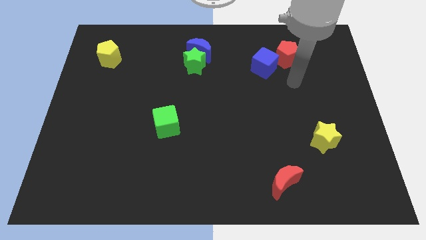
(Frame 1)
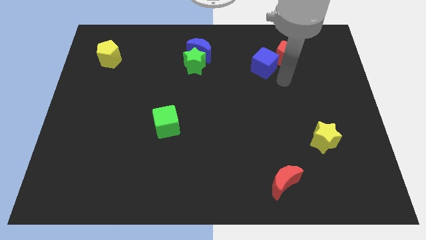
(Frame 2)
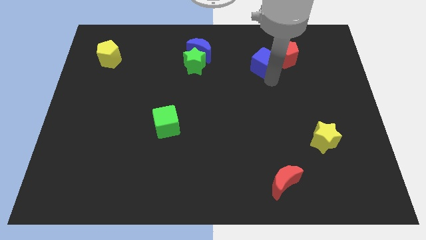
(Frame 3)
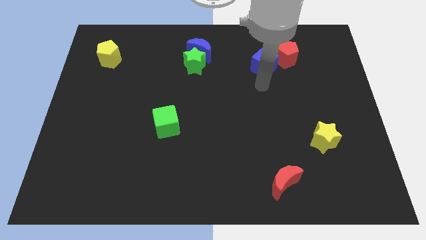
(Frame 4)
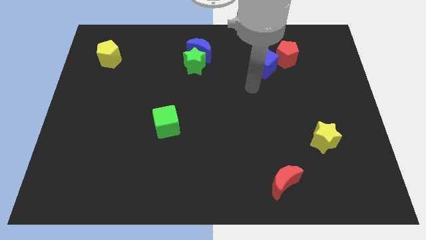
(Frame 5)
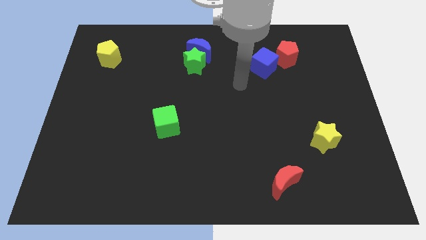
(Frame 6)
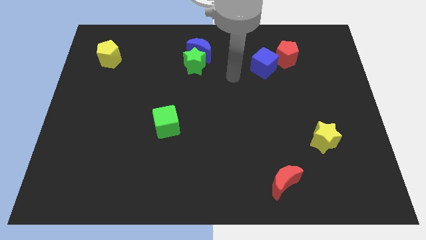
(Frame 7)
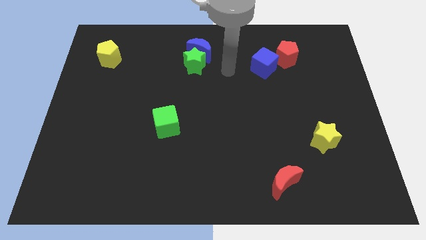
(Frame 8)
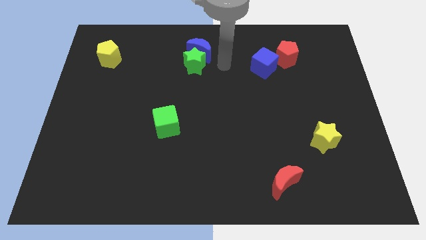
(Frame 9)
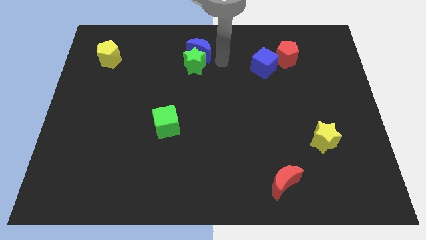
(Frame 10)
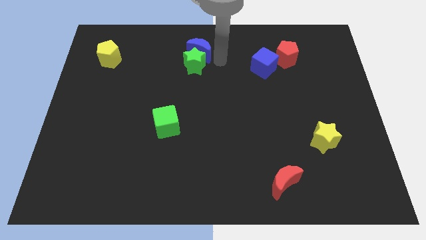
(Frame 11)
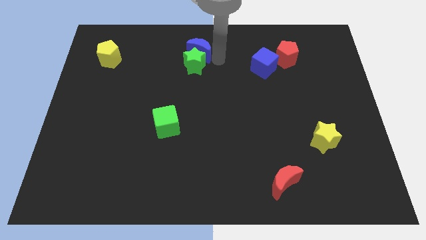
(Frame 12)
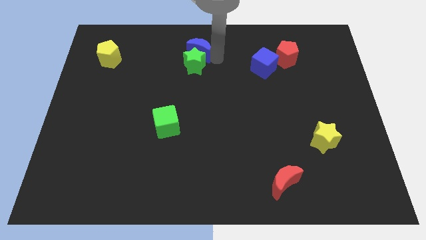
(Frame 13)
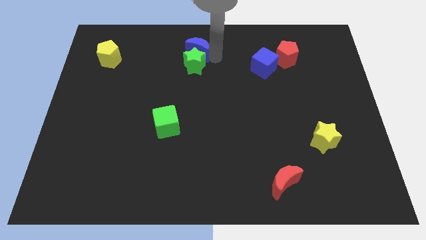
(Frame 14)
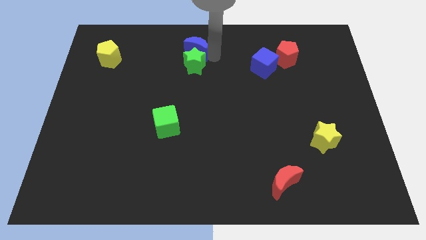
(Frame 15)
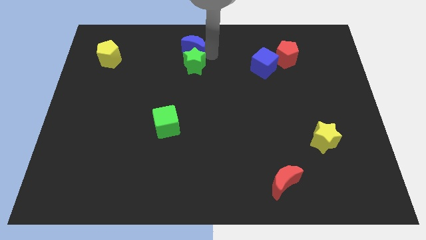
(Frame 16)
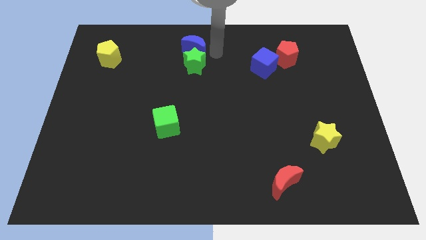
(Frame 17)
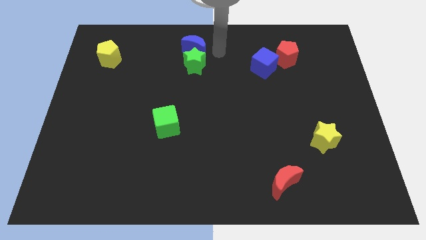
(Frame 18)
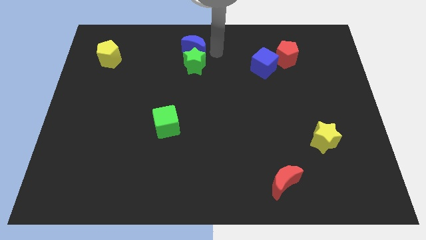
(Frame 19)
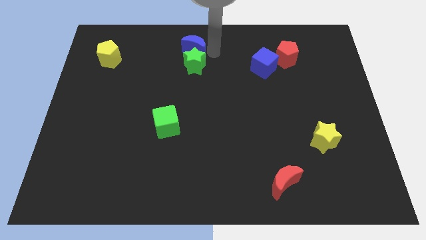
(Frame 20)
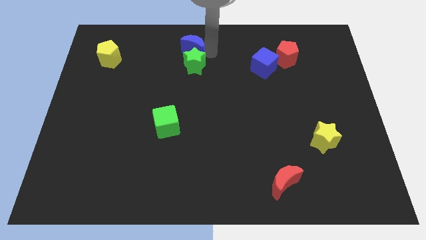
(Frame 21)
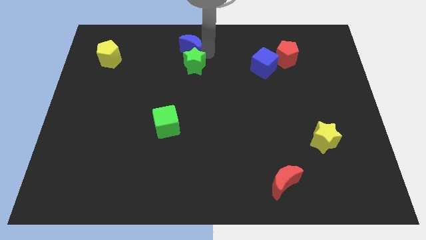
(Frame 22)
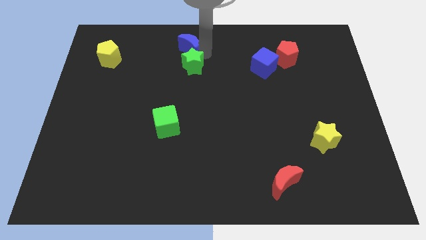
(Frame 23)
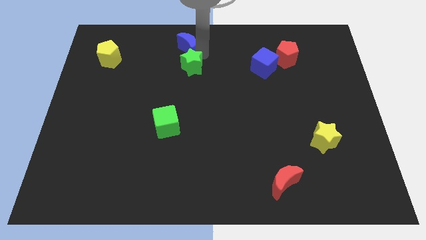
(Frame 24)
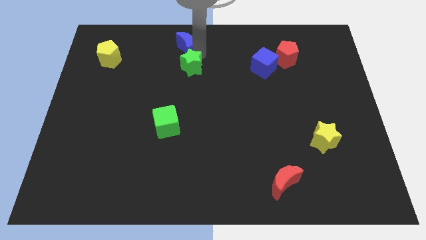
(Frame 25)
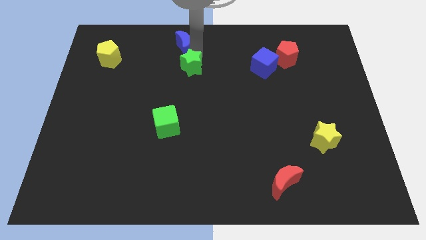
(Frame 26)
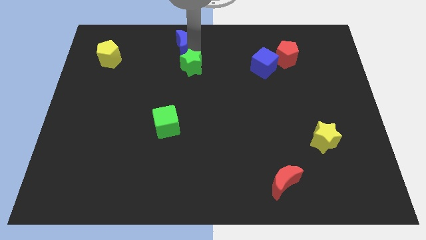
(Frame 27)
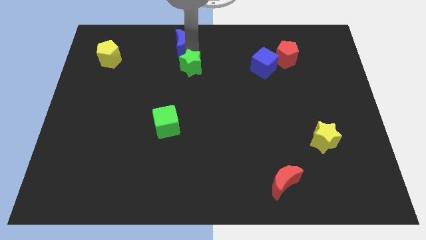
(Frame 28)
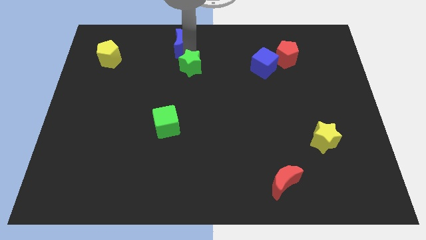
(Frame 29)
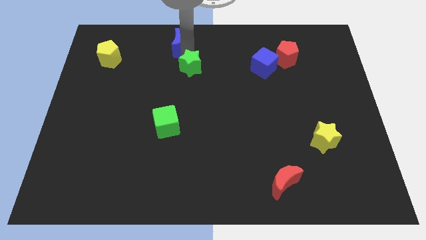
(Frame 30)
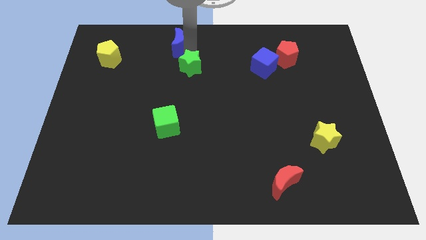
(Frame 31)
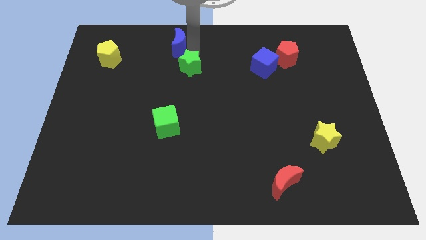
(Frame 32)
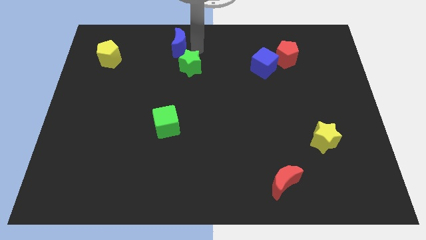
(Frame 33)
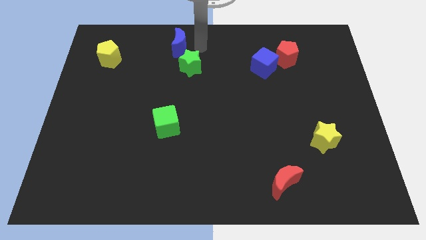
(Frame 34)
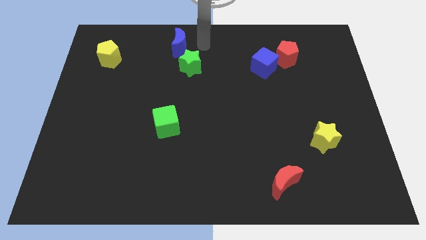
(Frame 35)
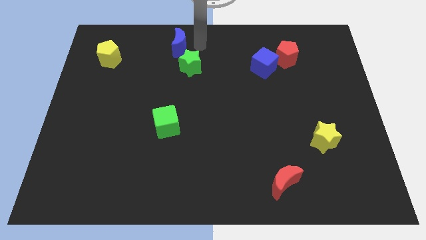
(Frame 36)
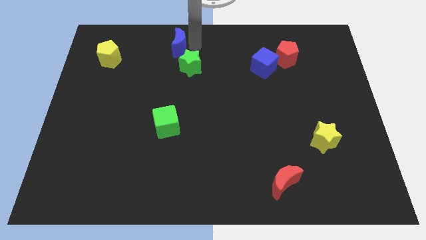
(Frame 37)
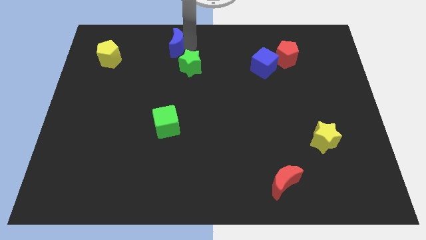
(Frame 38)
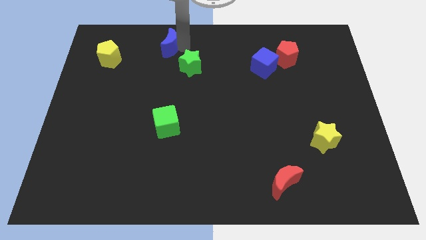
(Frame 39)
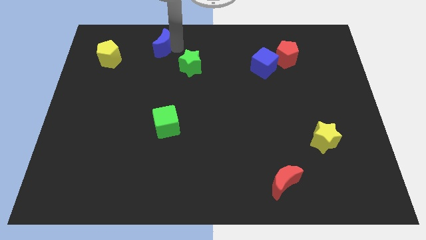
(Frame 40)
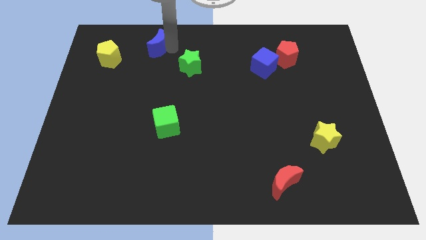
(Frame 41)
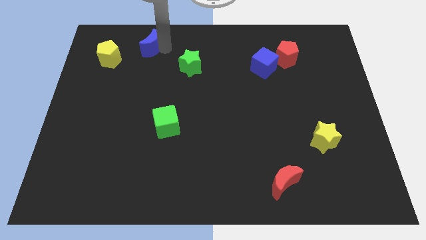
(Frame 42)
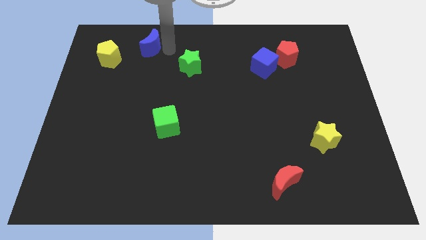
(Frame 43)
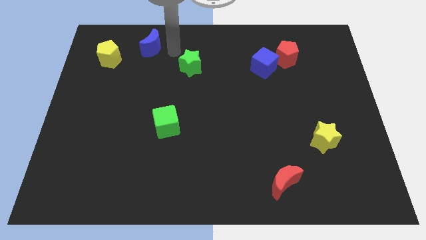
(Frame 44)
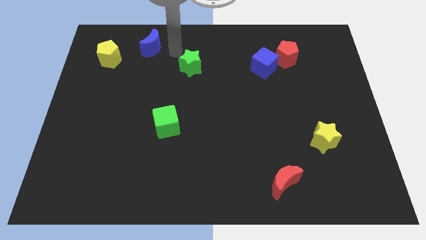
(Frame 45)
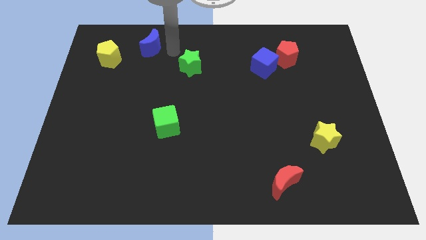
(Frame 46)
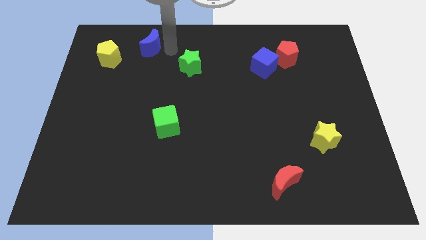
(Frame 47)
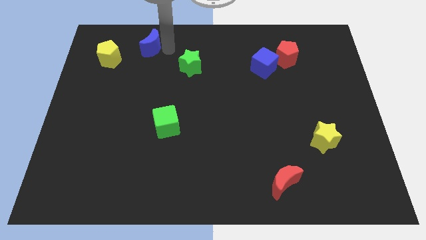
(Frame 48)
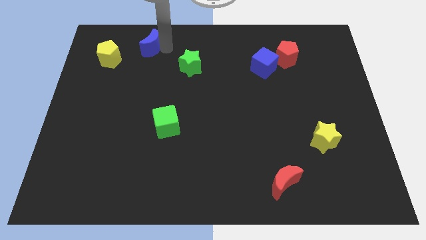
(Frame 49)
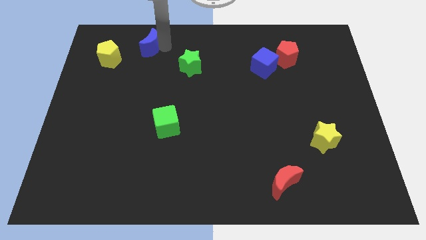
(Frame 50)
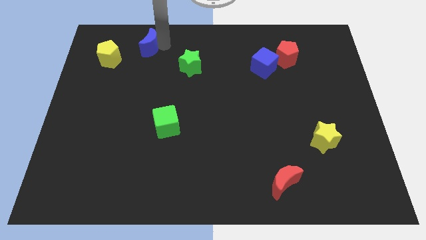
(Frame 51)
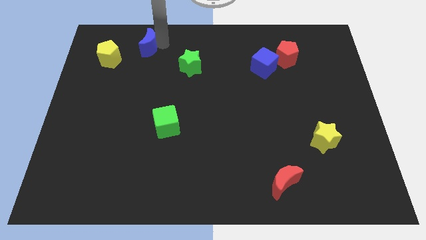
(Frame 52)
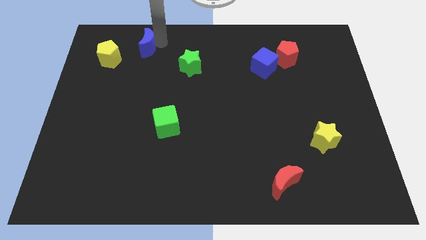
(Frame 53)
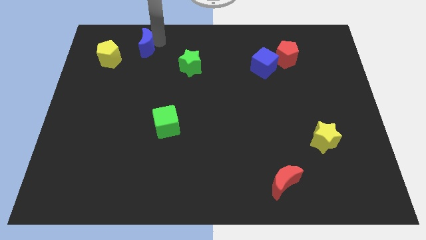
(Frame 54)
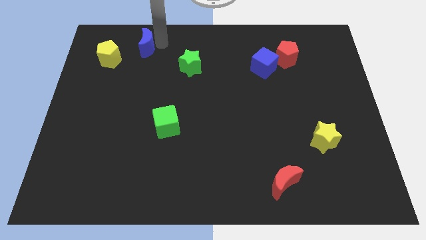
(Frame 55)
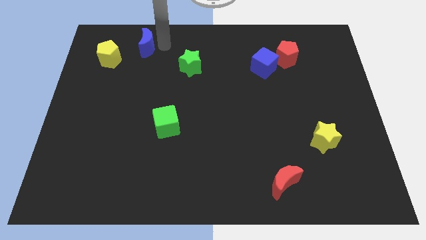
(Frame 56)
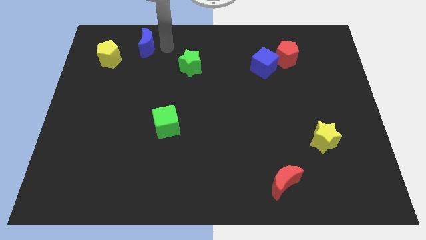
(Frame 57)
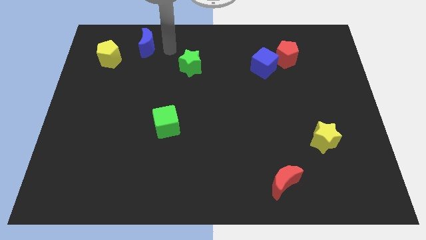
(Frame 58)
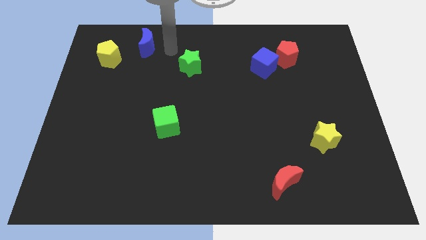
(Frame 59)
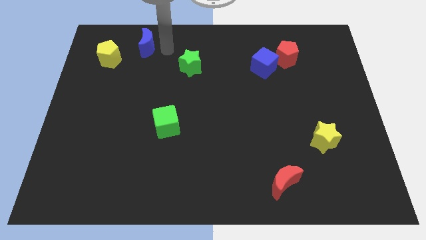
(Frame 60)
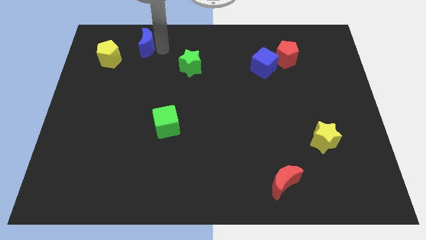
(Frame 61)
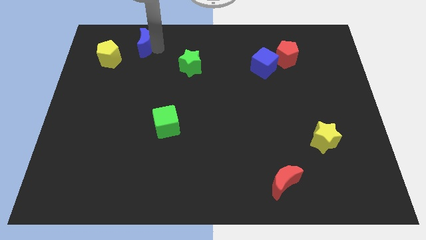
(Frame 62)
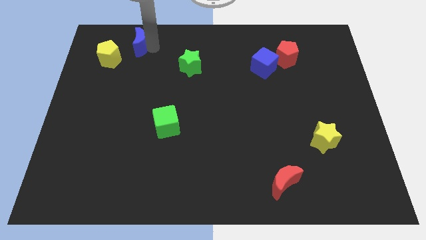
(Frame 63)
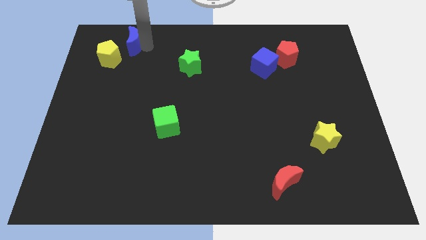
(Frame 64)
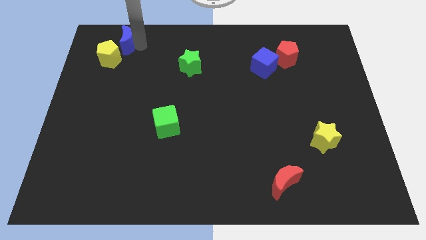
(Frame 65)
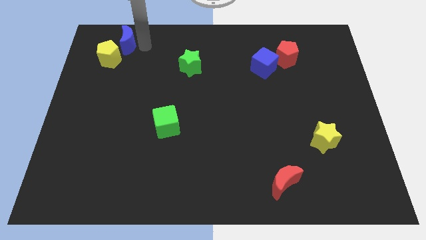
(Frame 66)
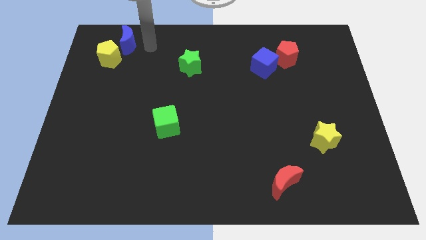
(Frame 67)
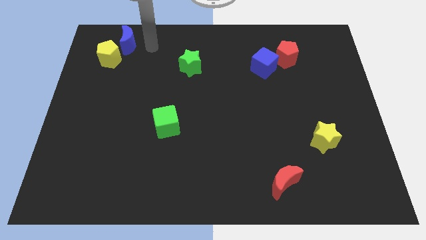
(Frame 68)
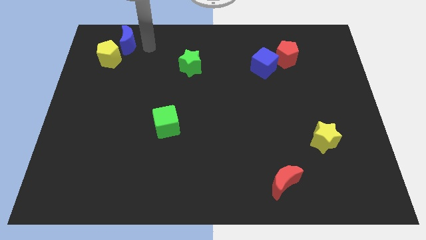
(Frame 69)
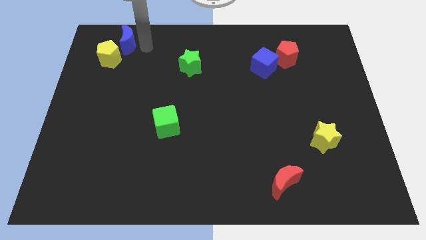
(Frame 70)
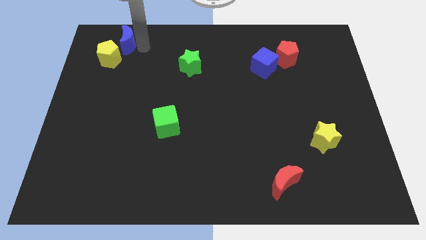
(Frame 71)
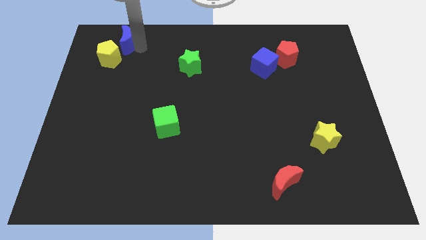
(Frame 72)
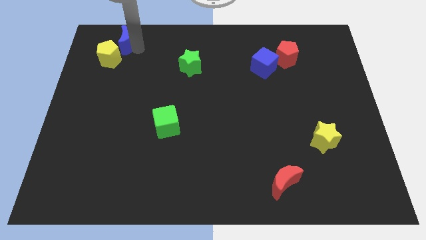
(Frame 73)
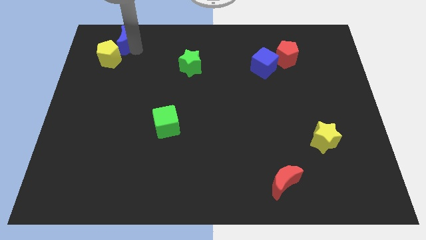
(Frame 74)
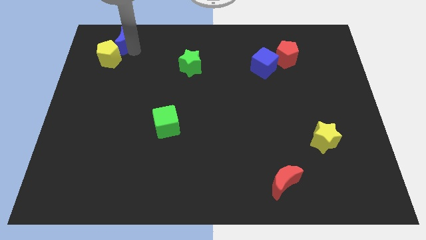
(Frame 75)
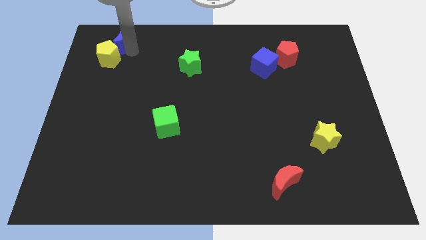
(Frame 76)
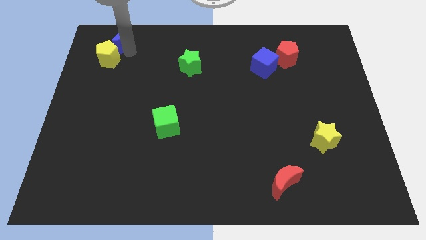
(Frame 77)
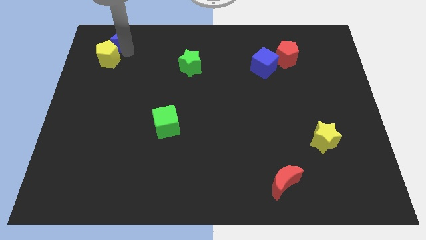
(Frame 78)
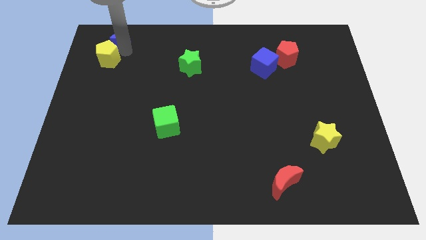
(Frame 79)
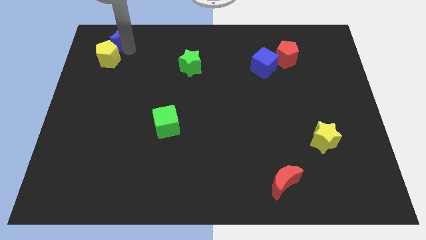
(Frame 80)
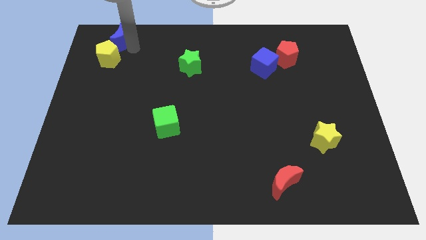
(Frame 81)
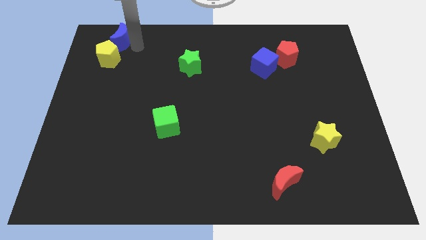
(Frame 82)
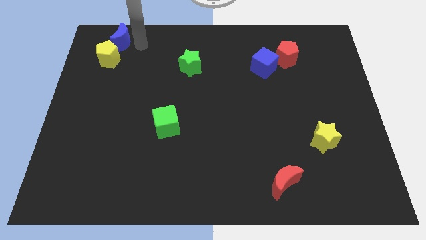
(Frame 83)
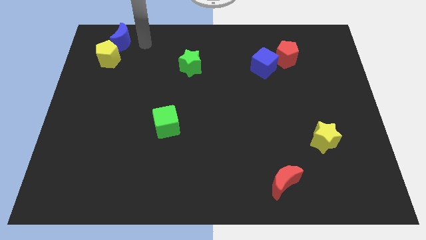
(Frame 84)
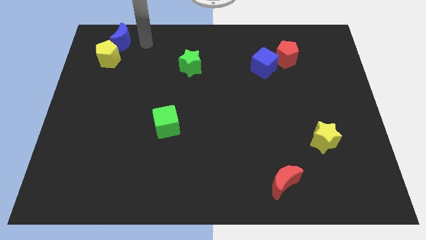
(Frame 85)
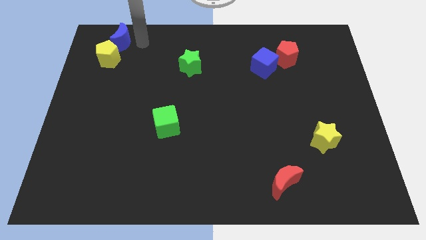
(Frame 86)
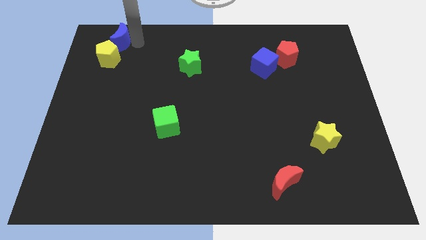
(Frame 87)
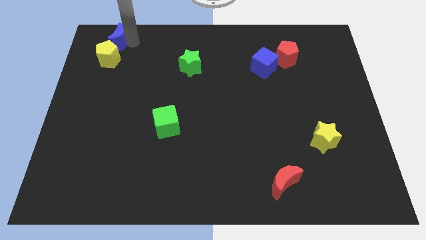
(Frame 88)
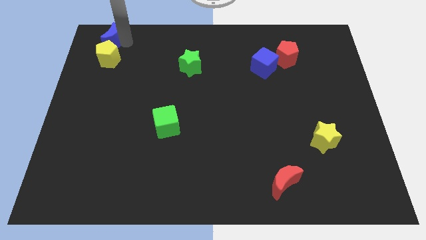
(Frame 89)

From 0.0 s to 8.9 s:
push the blue moon to the top left corner
